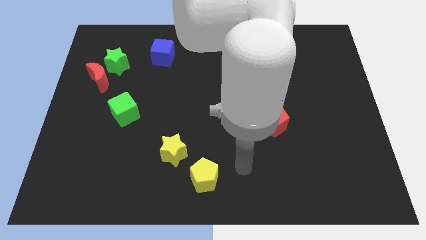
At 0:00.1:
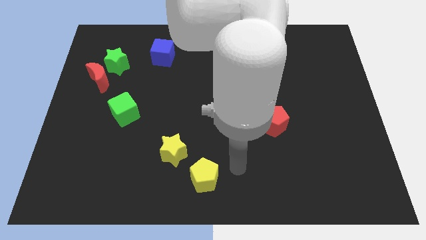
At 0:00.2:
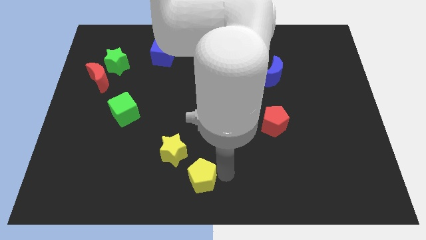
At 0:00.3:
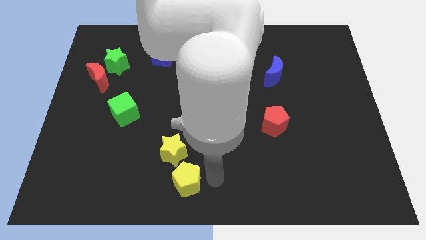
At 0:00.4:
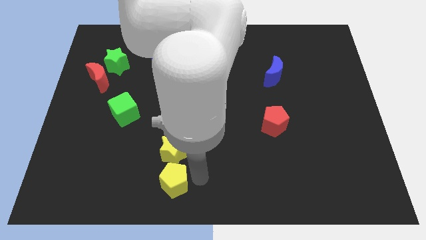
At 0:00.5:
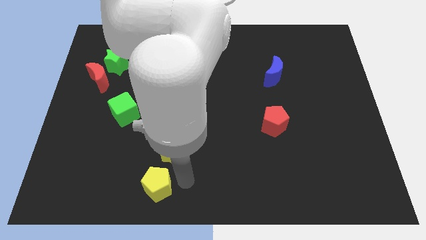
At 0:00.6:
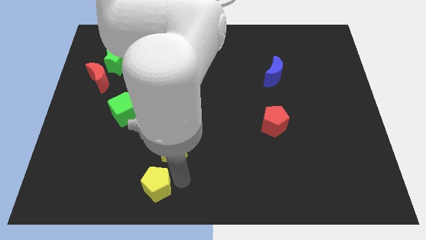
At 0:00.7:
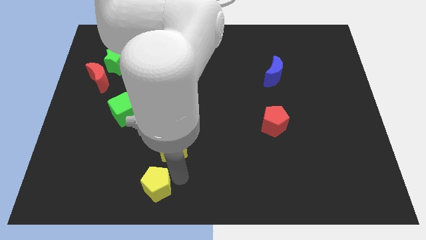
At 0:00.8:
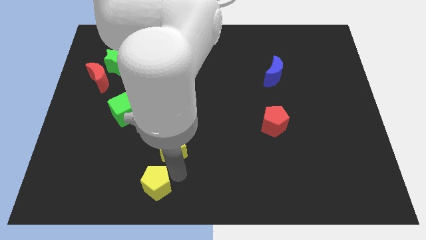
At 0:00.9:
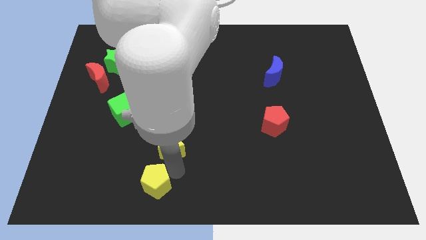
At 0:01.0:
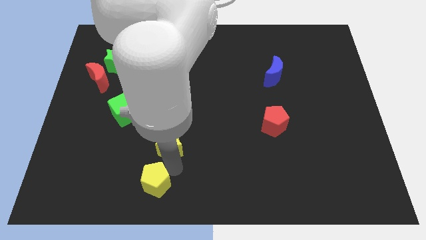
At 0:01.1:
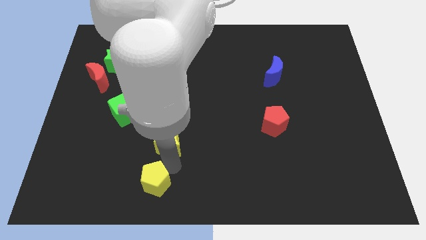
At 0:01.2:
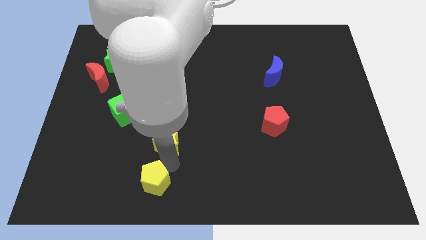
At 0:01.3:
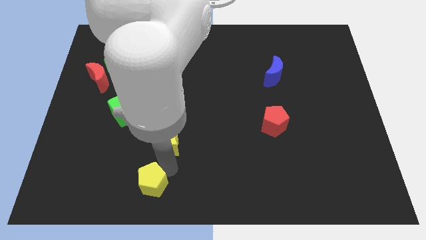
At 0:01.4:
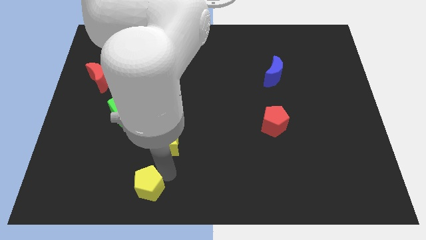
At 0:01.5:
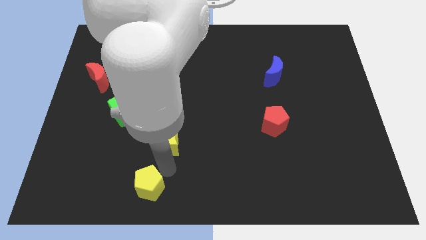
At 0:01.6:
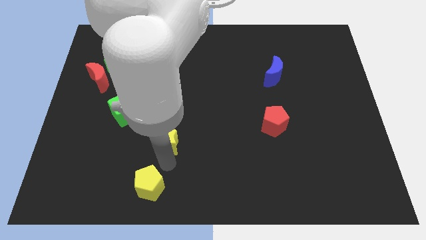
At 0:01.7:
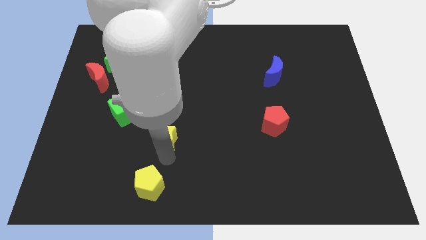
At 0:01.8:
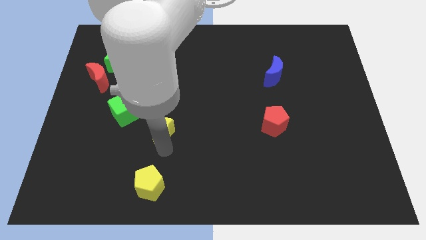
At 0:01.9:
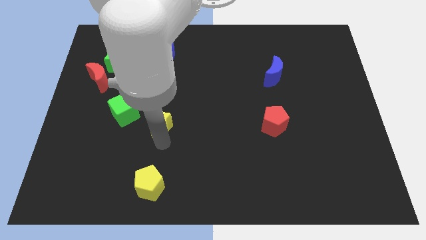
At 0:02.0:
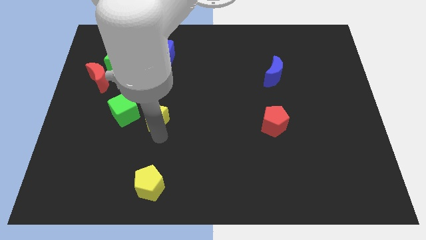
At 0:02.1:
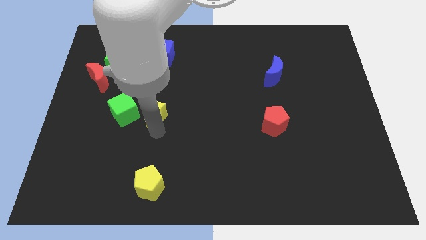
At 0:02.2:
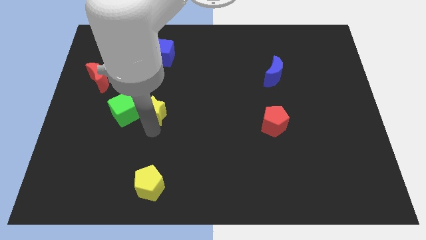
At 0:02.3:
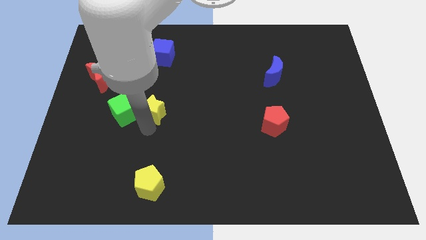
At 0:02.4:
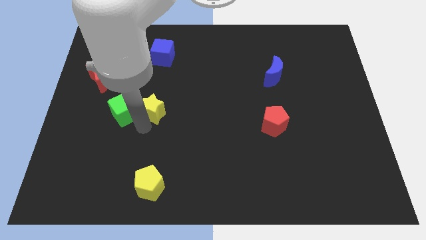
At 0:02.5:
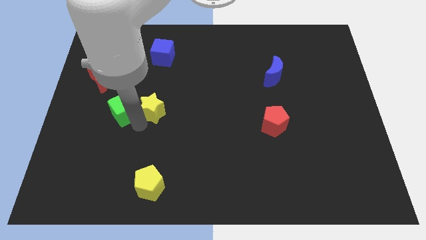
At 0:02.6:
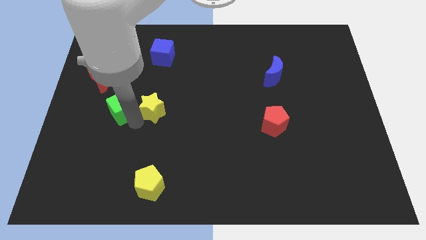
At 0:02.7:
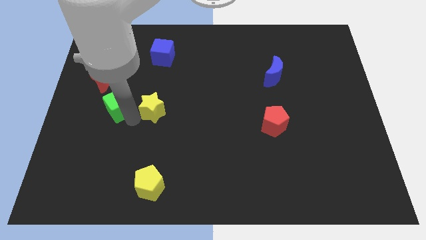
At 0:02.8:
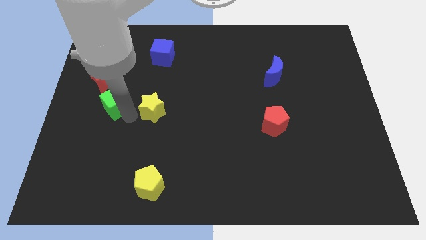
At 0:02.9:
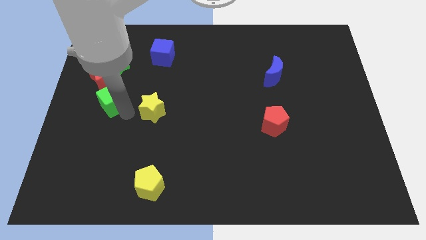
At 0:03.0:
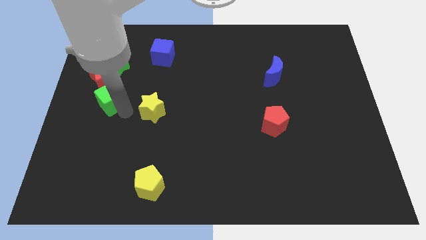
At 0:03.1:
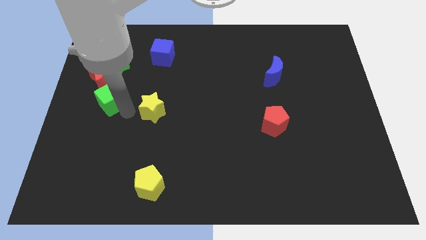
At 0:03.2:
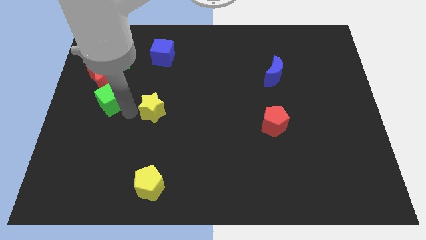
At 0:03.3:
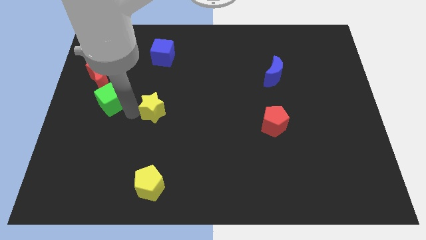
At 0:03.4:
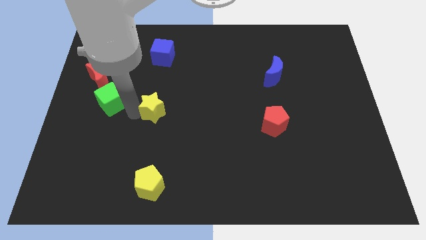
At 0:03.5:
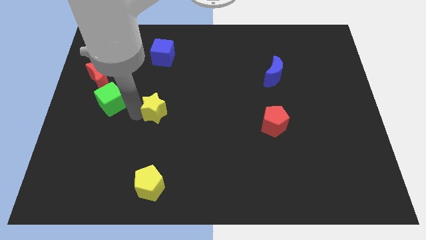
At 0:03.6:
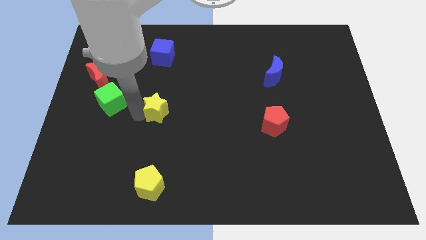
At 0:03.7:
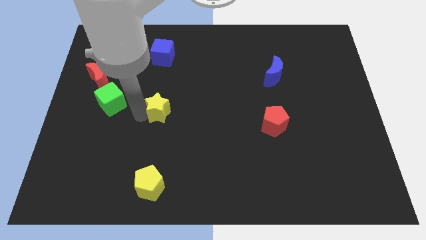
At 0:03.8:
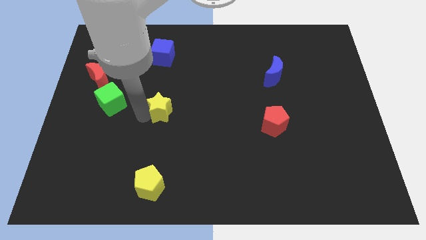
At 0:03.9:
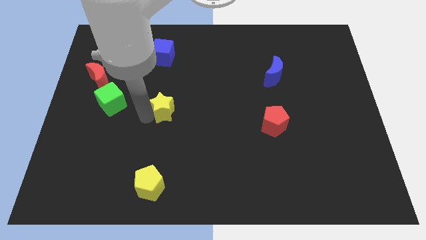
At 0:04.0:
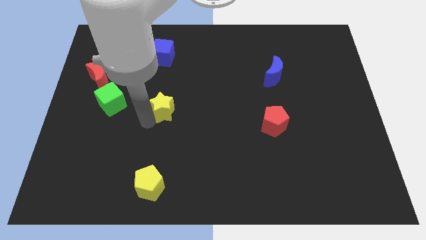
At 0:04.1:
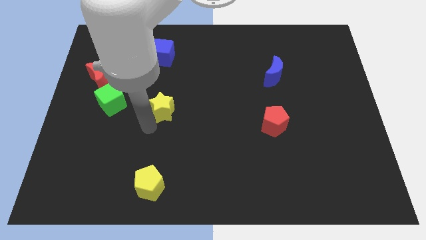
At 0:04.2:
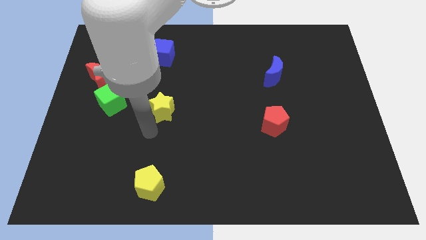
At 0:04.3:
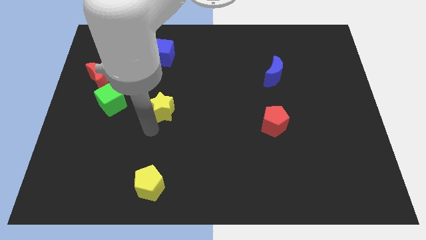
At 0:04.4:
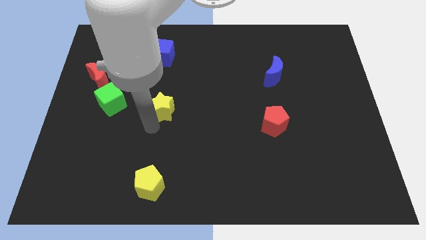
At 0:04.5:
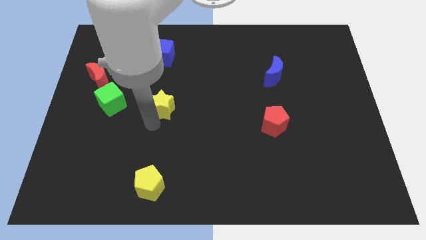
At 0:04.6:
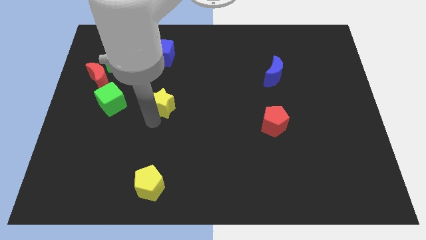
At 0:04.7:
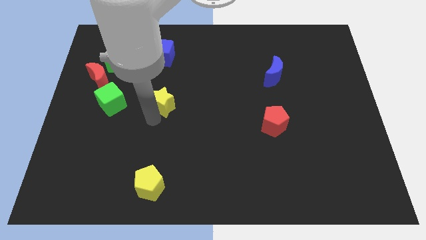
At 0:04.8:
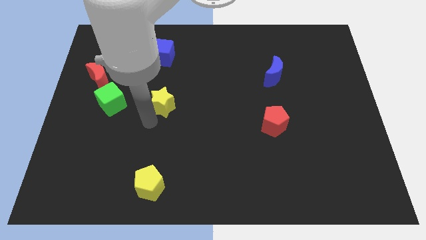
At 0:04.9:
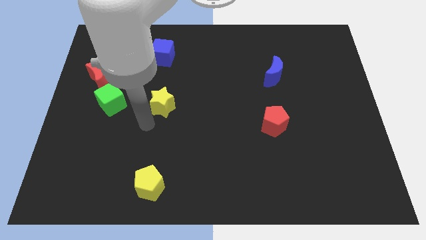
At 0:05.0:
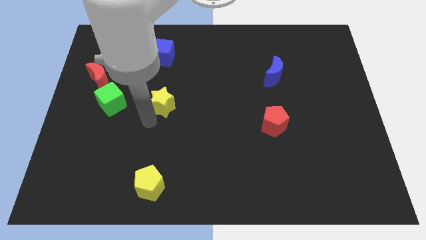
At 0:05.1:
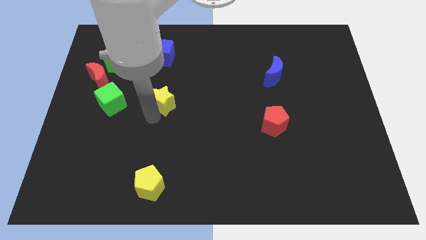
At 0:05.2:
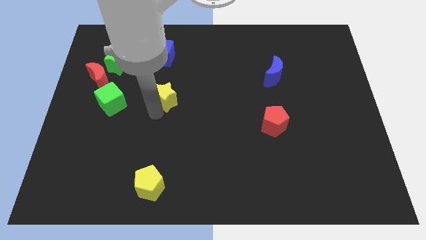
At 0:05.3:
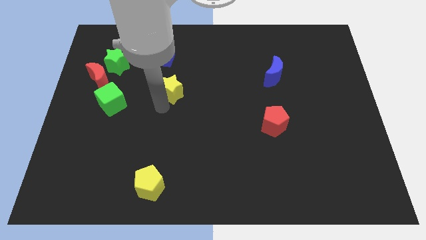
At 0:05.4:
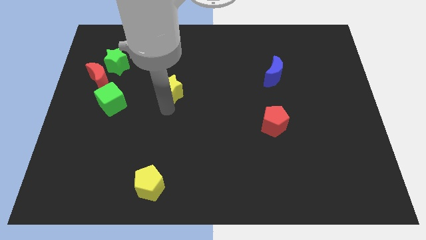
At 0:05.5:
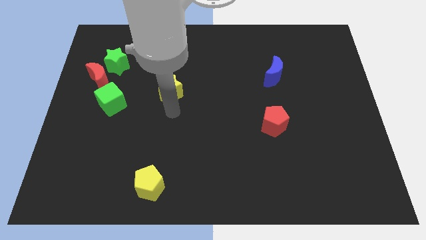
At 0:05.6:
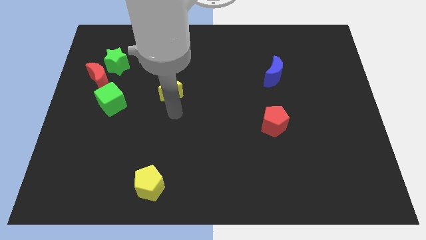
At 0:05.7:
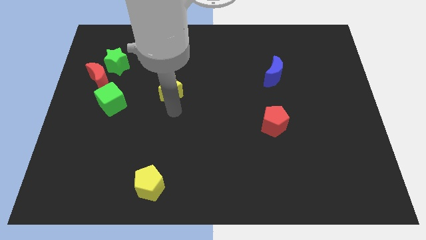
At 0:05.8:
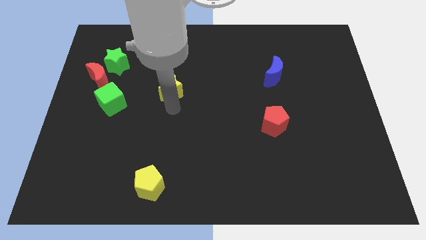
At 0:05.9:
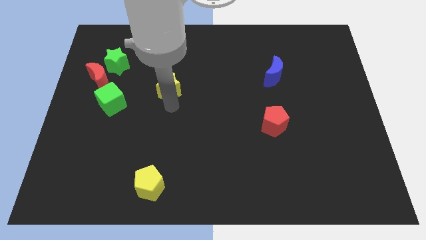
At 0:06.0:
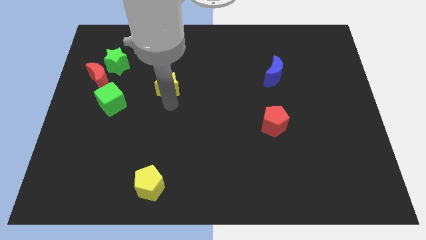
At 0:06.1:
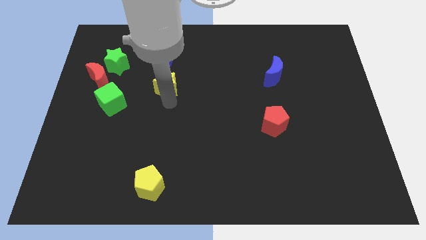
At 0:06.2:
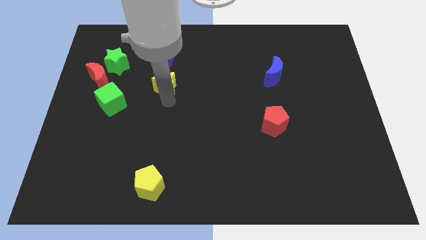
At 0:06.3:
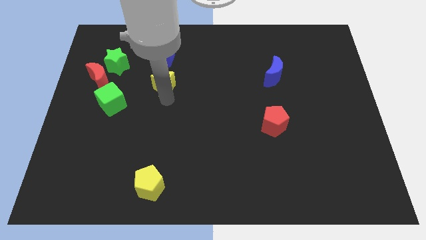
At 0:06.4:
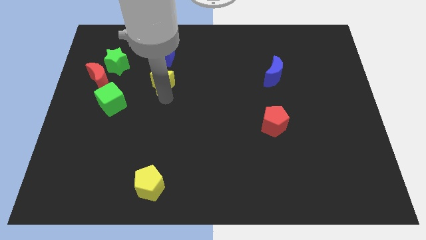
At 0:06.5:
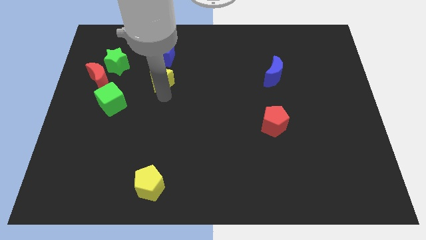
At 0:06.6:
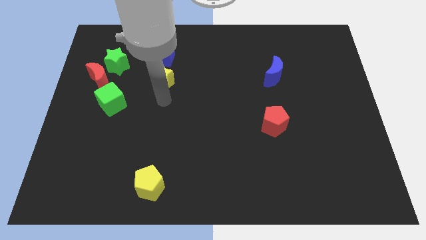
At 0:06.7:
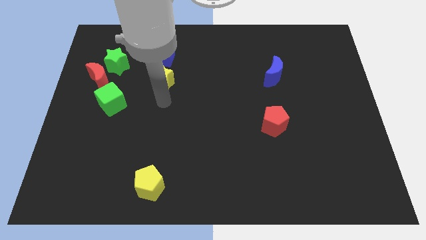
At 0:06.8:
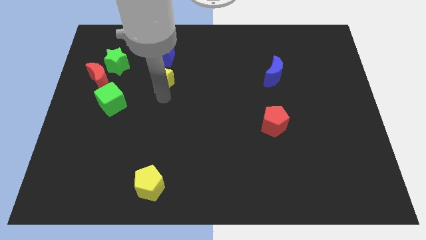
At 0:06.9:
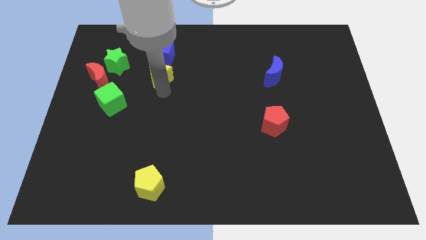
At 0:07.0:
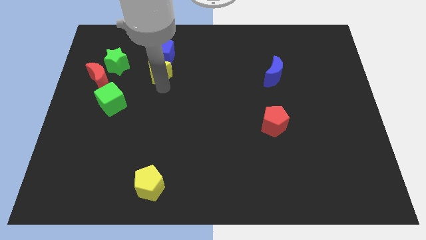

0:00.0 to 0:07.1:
put the yellow star to the blue cube
